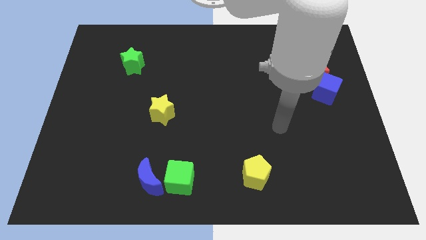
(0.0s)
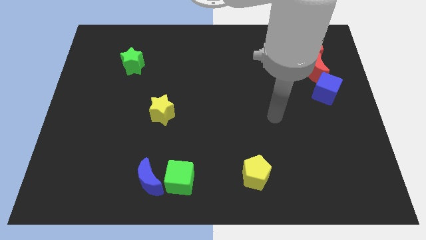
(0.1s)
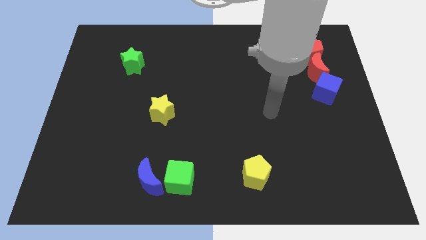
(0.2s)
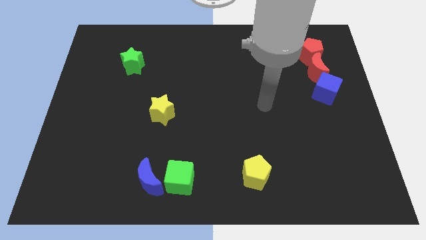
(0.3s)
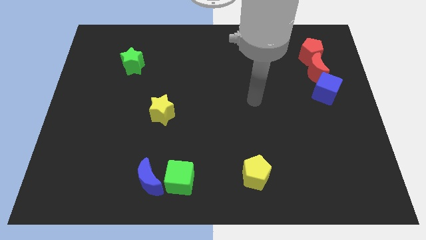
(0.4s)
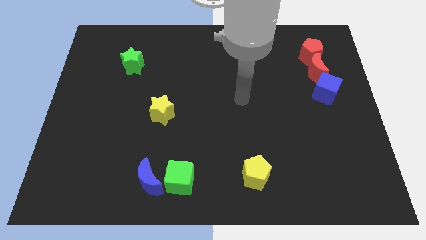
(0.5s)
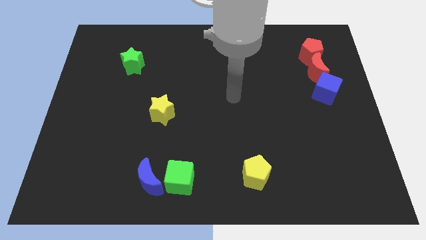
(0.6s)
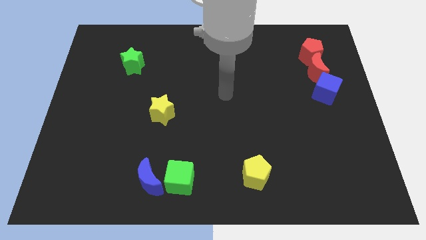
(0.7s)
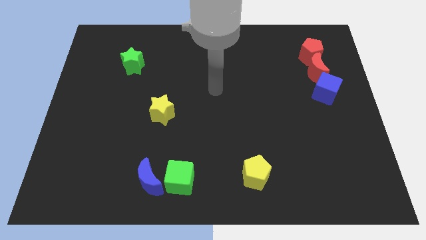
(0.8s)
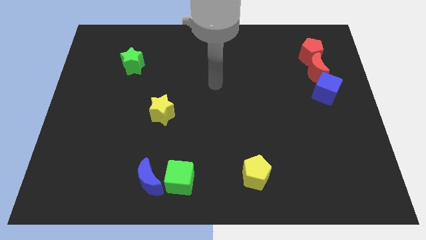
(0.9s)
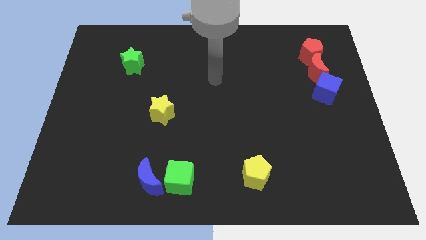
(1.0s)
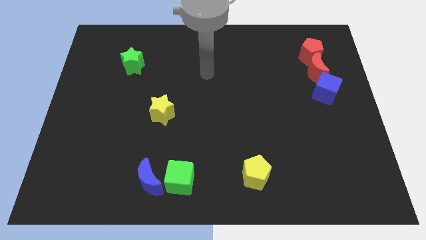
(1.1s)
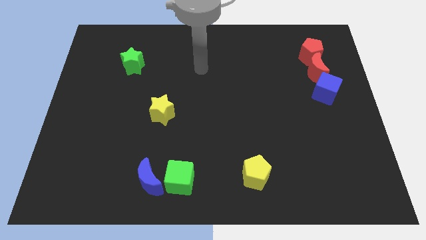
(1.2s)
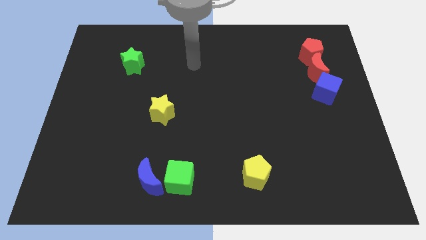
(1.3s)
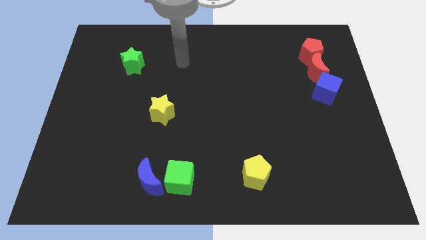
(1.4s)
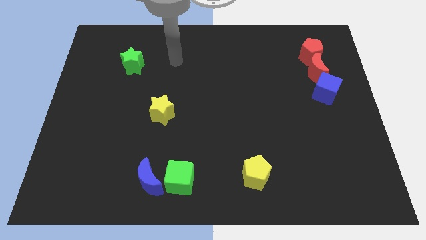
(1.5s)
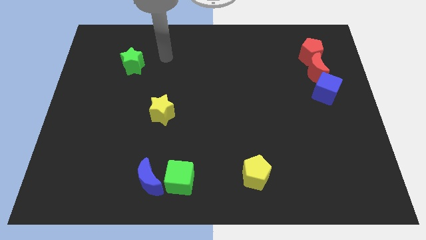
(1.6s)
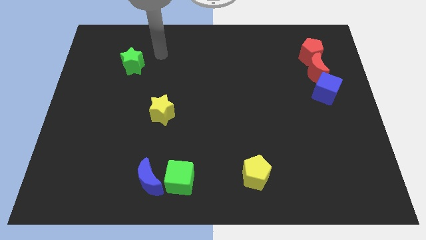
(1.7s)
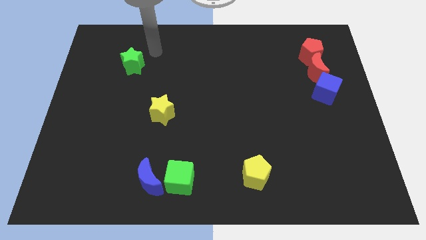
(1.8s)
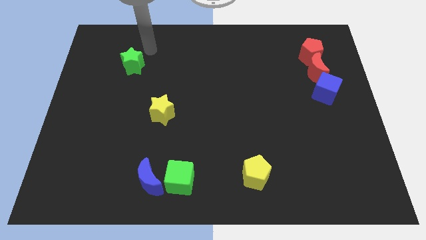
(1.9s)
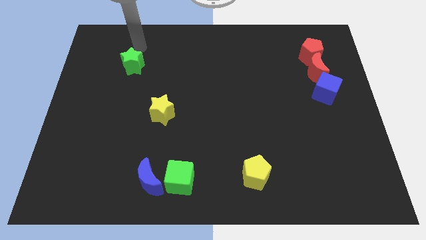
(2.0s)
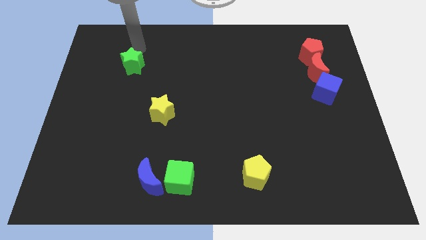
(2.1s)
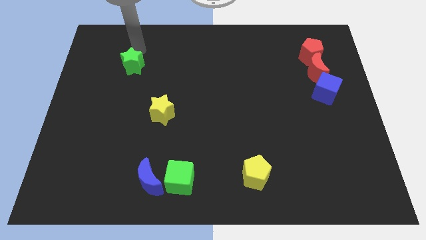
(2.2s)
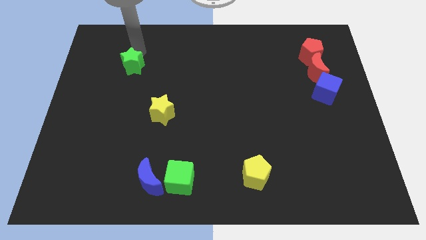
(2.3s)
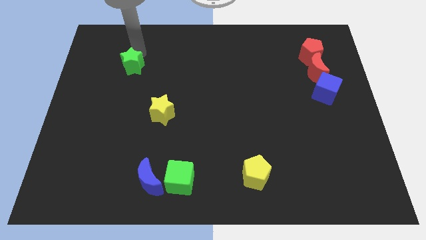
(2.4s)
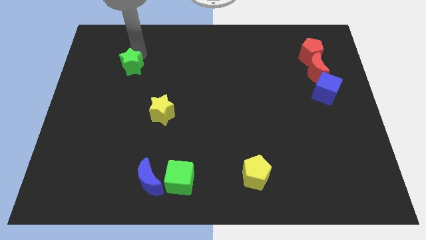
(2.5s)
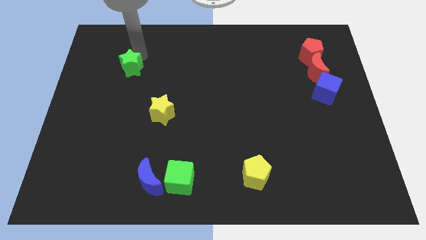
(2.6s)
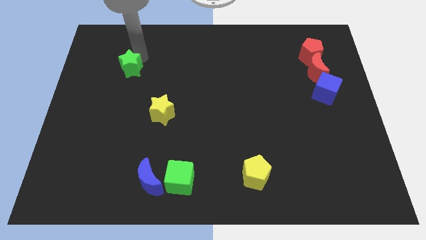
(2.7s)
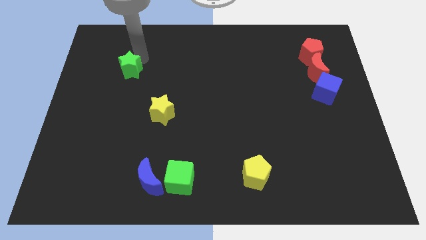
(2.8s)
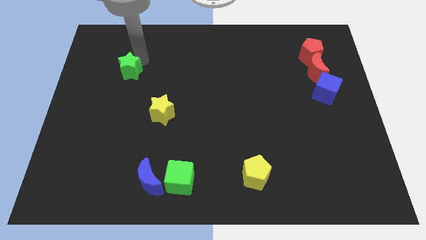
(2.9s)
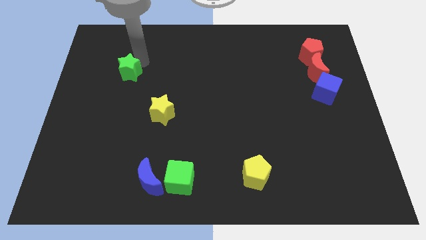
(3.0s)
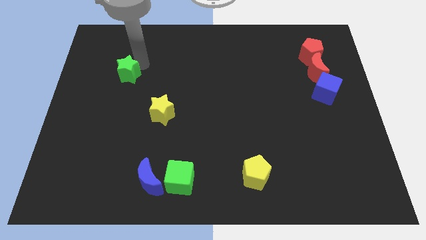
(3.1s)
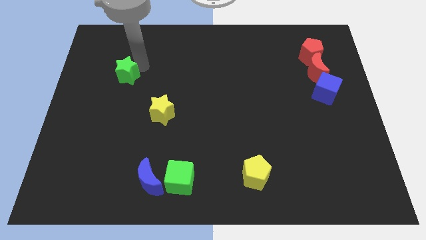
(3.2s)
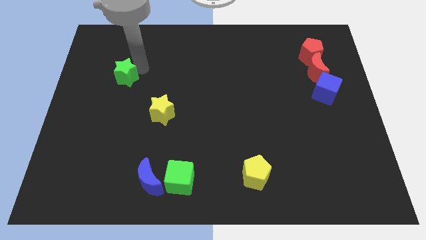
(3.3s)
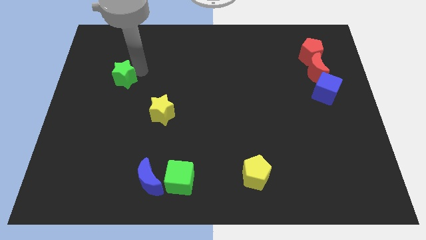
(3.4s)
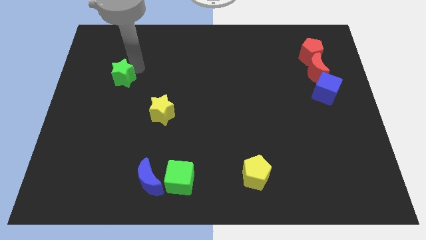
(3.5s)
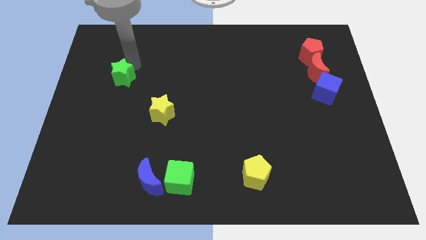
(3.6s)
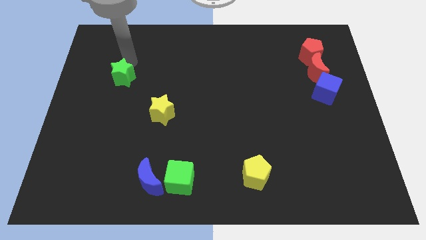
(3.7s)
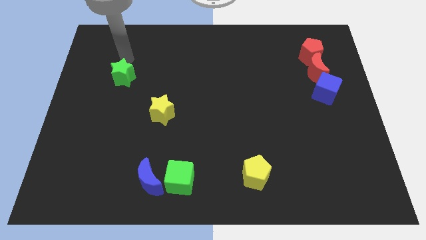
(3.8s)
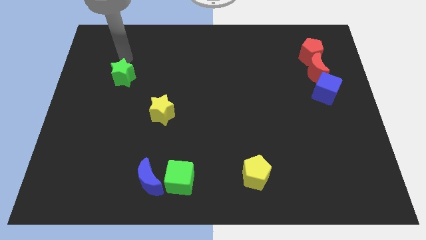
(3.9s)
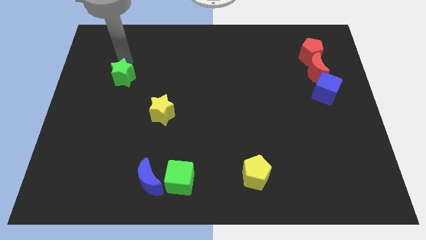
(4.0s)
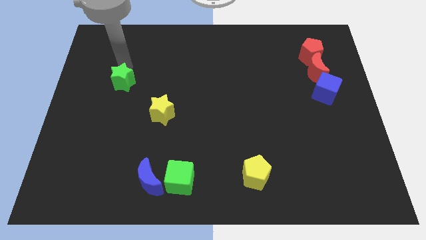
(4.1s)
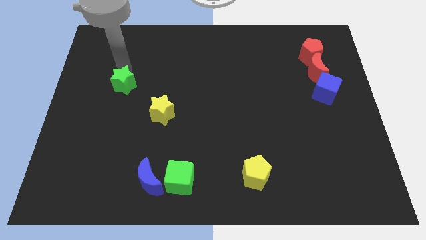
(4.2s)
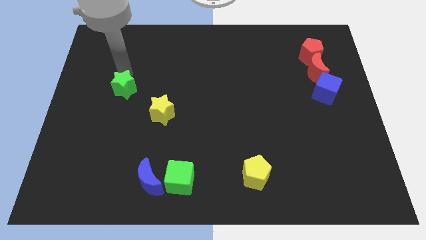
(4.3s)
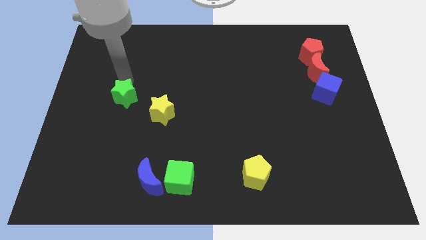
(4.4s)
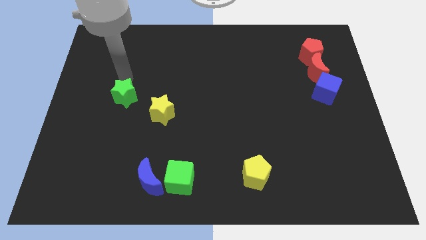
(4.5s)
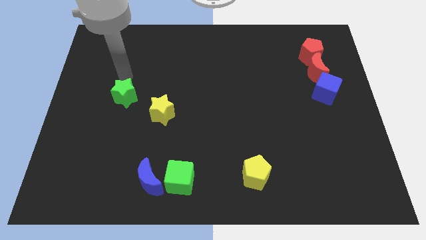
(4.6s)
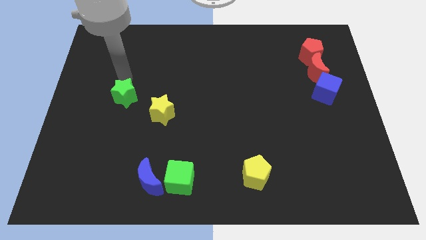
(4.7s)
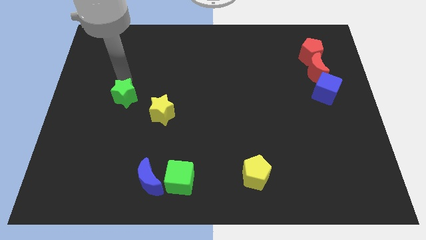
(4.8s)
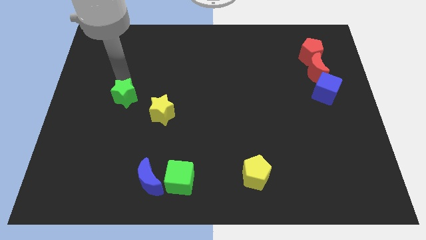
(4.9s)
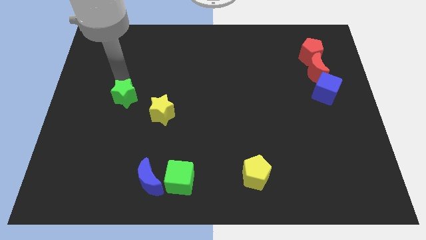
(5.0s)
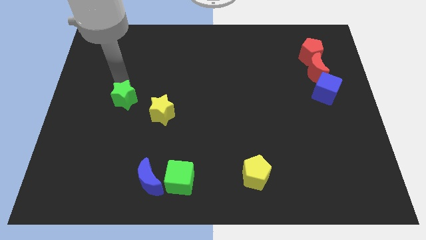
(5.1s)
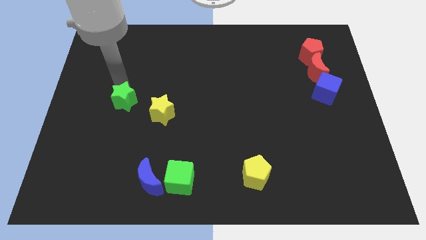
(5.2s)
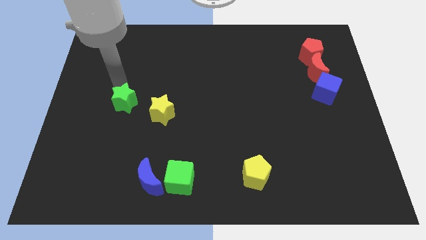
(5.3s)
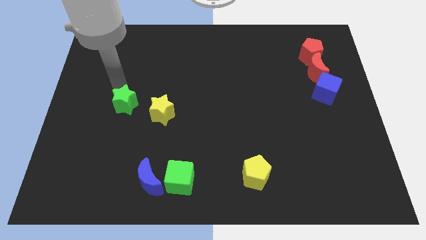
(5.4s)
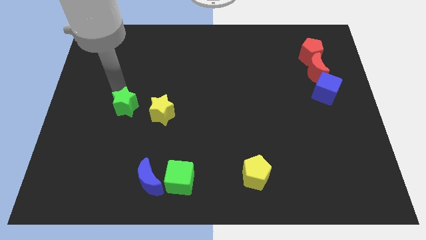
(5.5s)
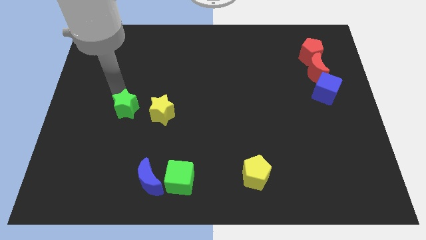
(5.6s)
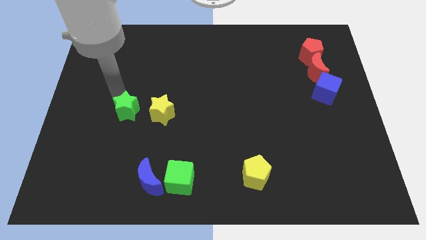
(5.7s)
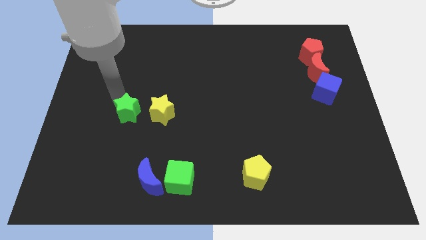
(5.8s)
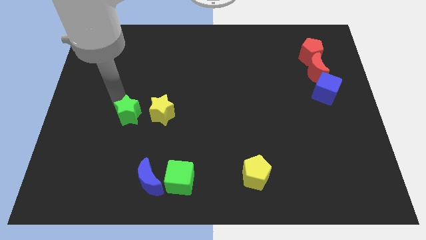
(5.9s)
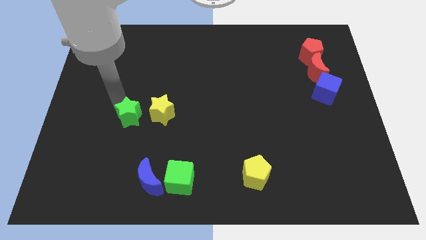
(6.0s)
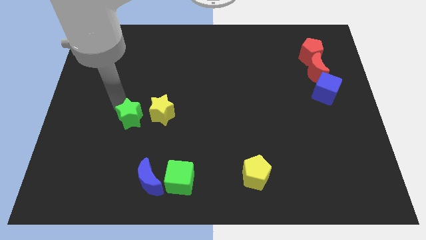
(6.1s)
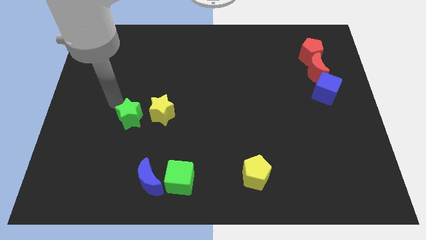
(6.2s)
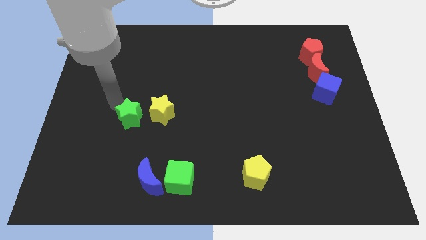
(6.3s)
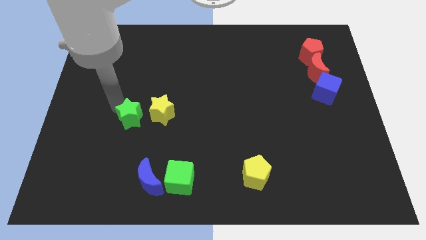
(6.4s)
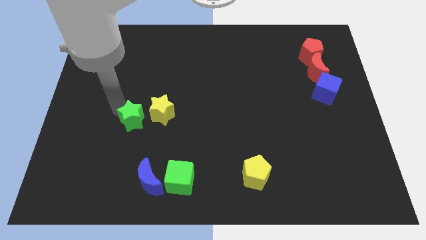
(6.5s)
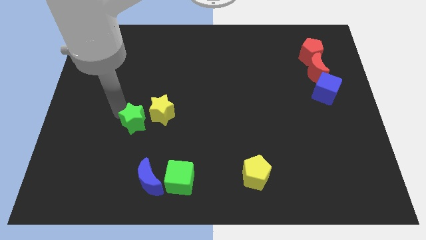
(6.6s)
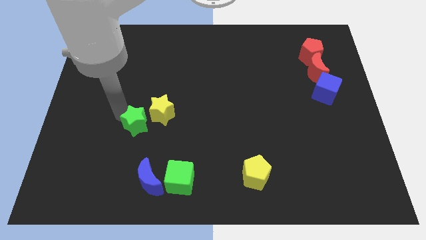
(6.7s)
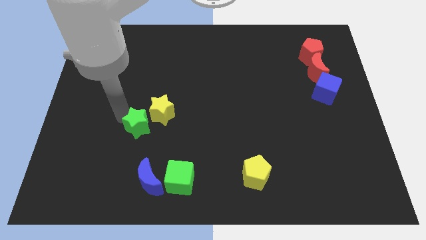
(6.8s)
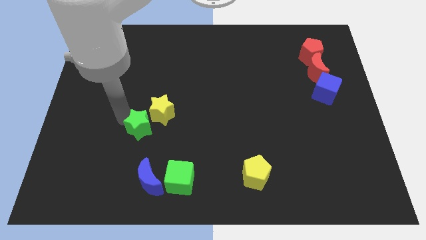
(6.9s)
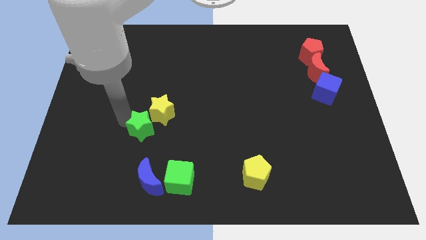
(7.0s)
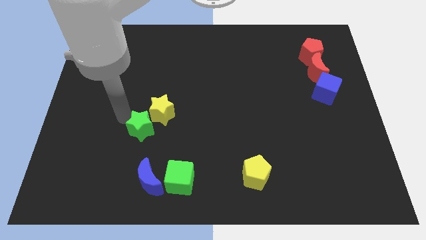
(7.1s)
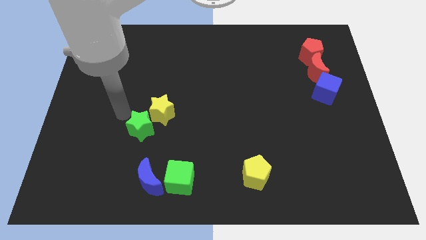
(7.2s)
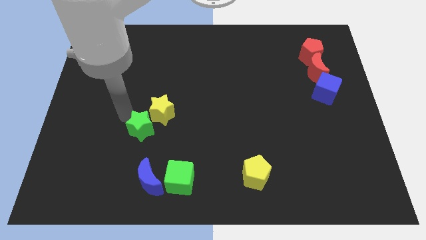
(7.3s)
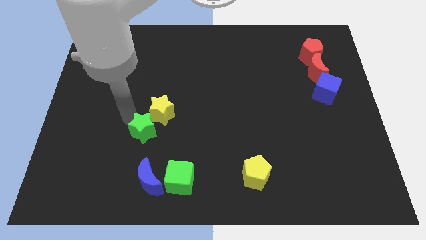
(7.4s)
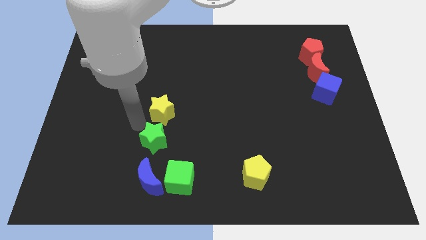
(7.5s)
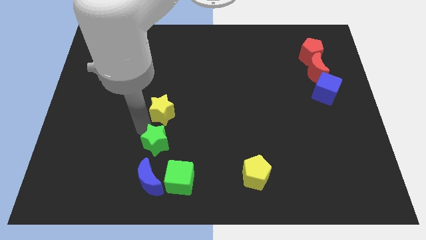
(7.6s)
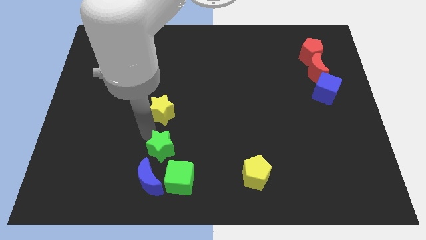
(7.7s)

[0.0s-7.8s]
put the green star to the top right side of the blue moon

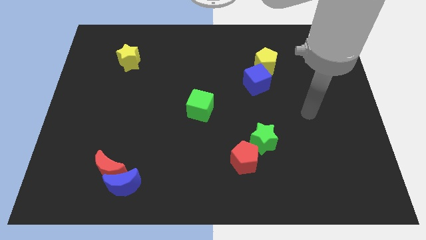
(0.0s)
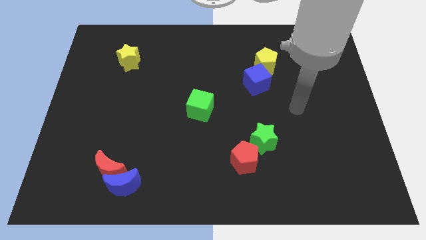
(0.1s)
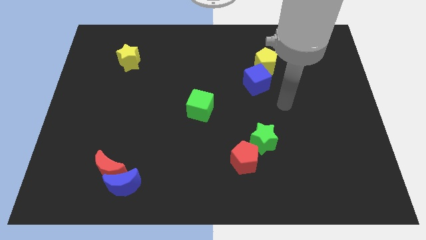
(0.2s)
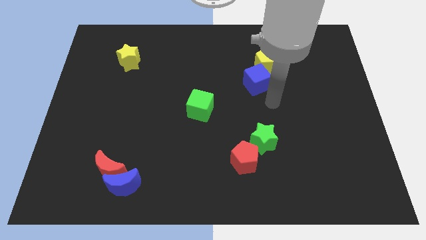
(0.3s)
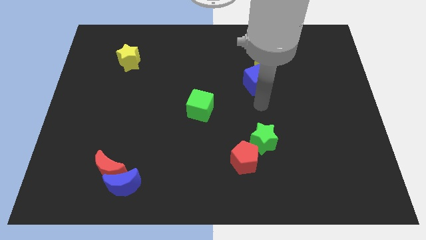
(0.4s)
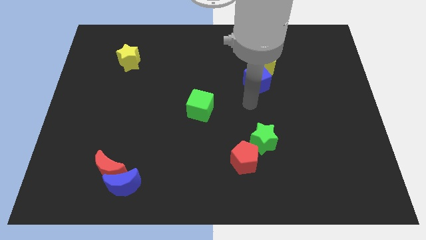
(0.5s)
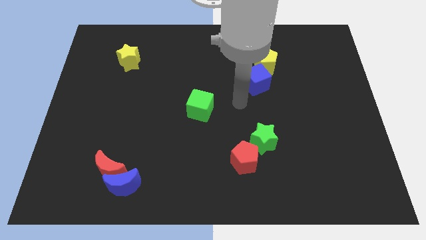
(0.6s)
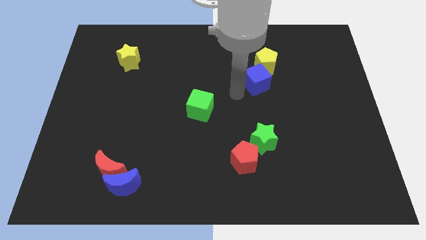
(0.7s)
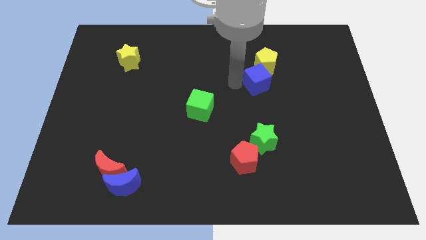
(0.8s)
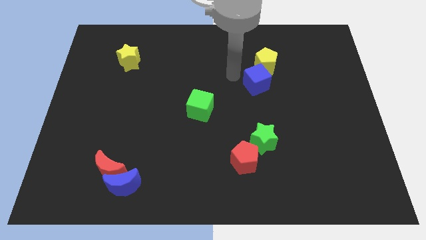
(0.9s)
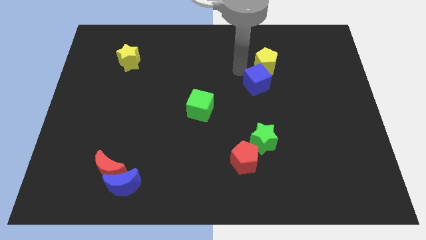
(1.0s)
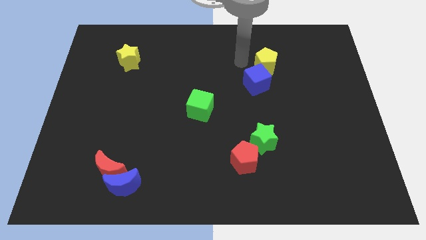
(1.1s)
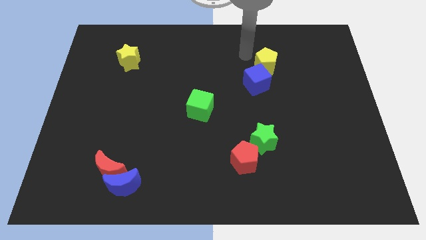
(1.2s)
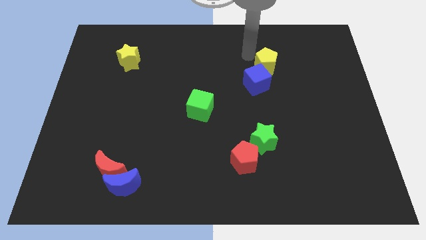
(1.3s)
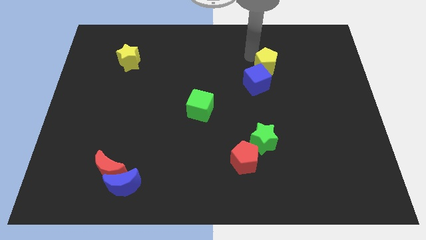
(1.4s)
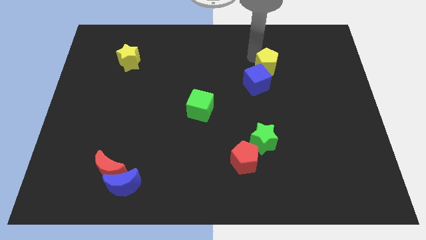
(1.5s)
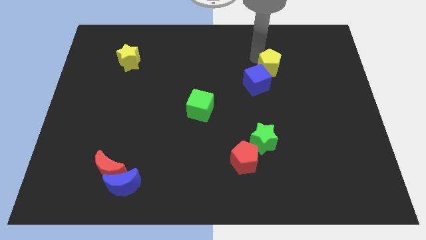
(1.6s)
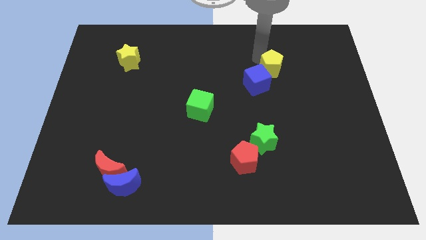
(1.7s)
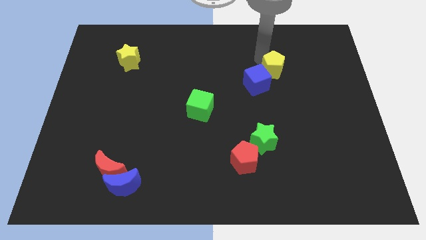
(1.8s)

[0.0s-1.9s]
put the yellow pentagon to the right side of the blue cube
